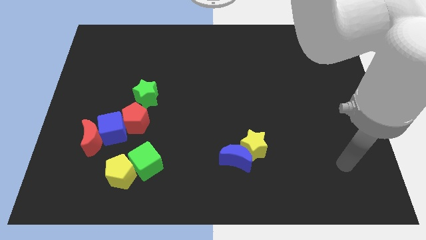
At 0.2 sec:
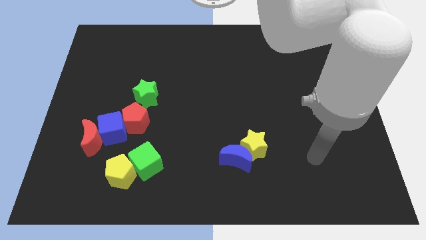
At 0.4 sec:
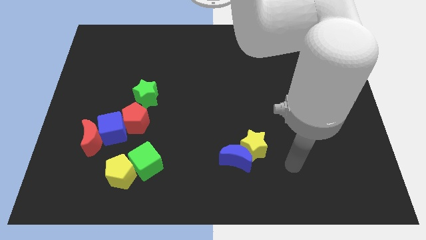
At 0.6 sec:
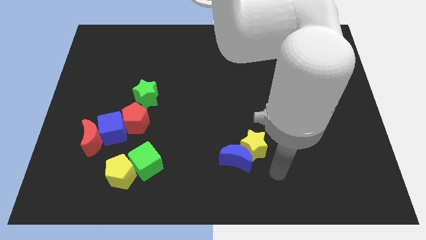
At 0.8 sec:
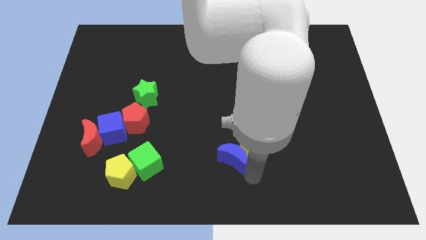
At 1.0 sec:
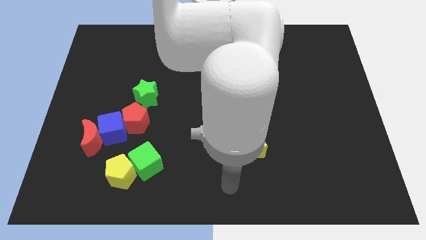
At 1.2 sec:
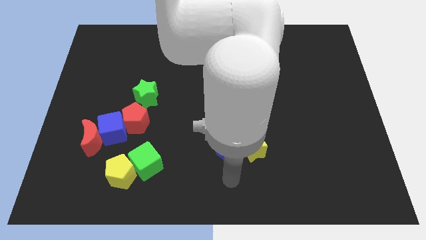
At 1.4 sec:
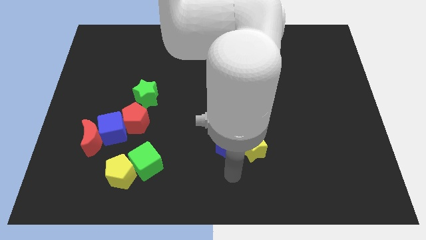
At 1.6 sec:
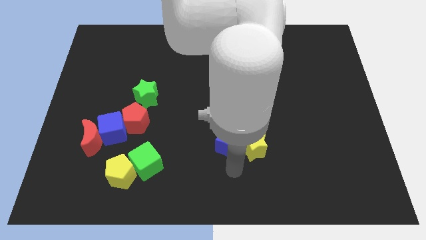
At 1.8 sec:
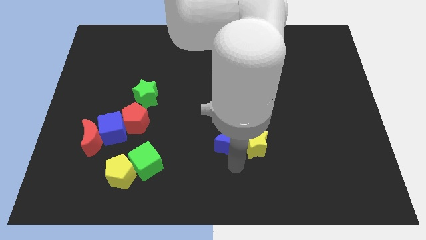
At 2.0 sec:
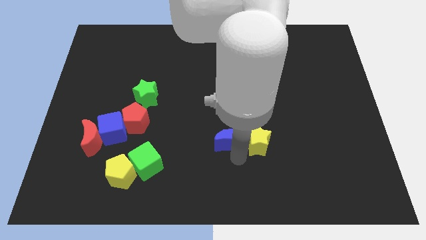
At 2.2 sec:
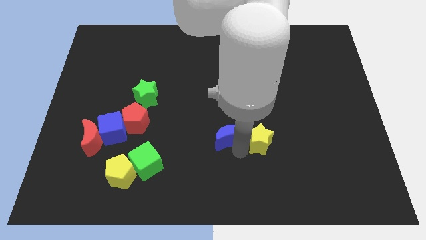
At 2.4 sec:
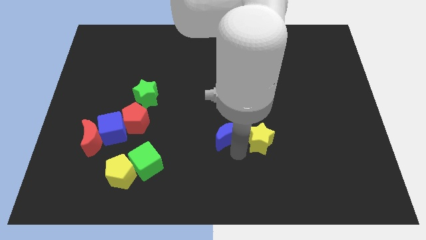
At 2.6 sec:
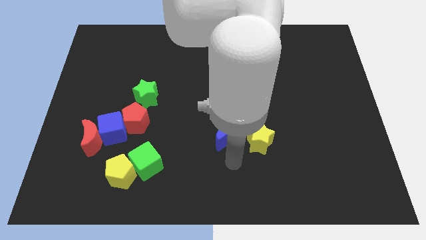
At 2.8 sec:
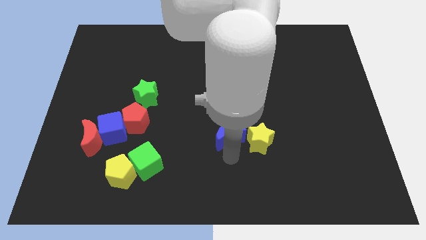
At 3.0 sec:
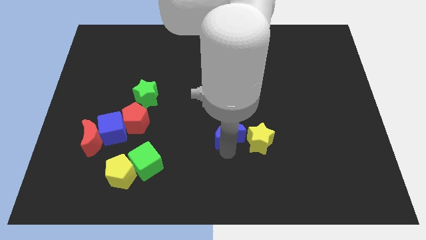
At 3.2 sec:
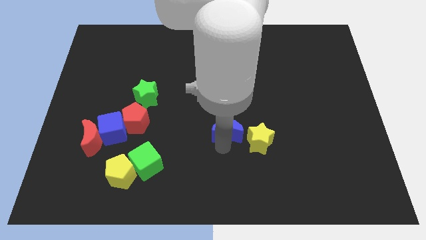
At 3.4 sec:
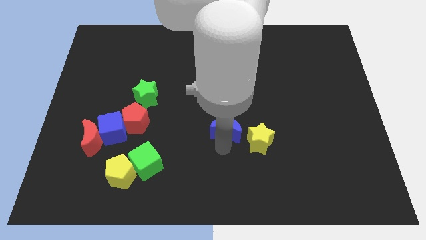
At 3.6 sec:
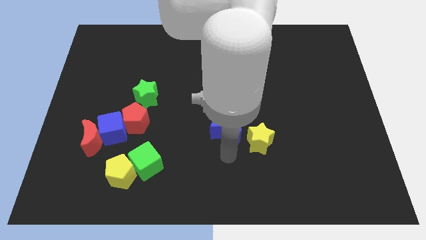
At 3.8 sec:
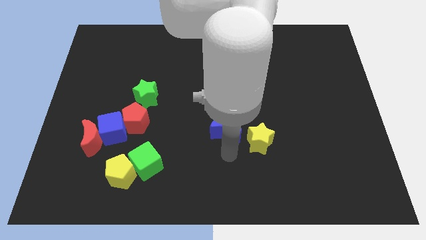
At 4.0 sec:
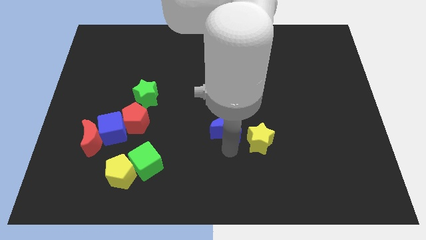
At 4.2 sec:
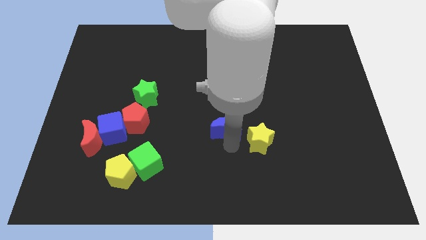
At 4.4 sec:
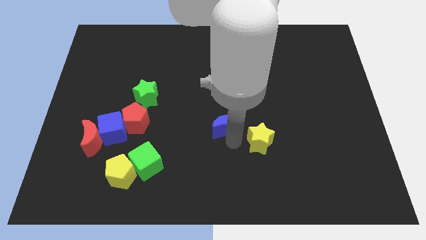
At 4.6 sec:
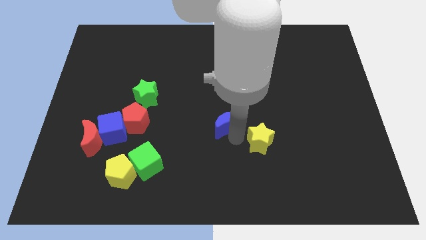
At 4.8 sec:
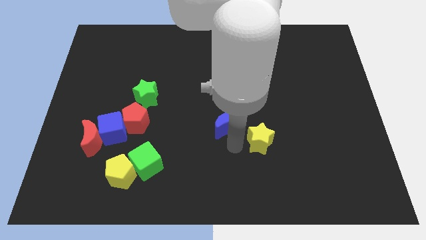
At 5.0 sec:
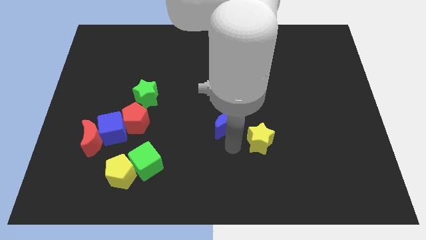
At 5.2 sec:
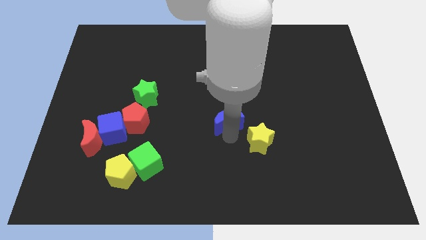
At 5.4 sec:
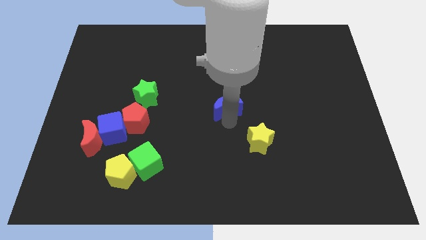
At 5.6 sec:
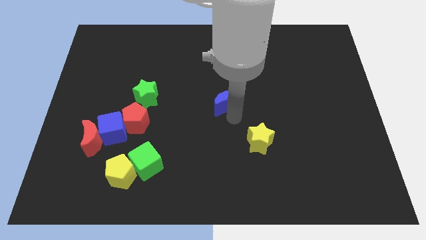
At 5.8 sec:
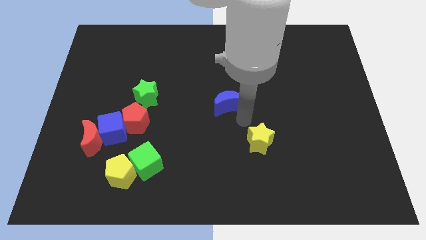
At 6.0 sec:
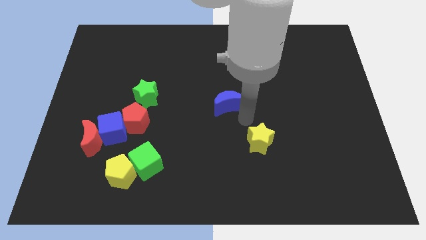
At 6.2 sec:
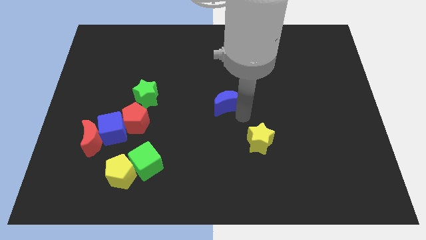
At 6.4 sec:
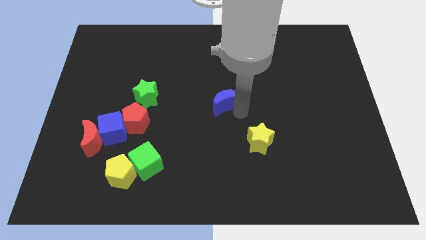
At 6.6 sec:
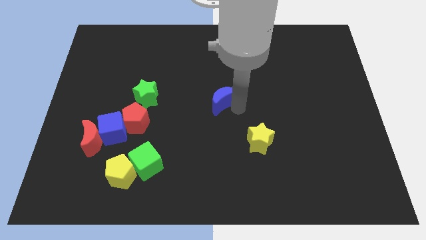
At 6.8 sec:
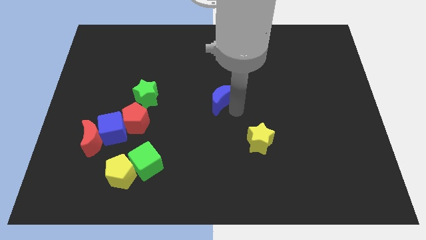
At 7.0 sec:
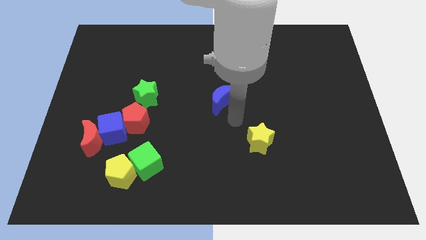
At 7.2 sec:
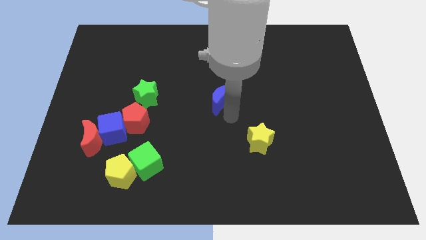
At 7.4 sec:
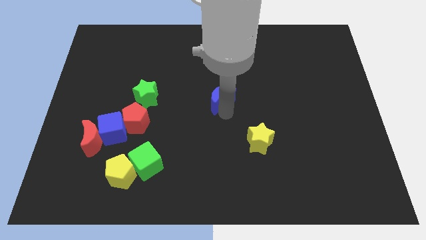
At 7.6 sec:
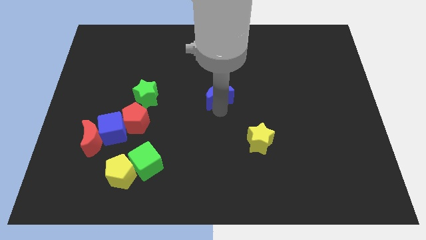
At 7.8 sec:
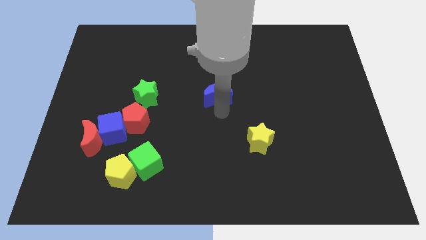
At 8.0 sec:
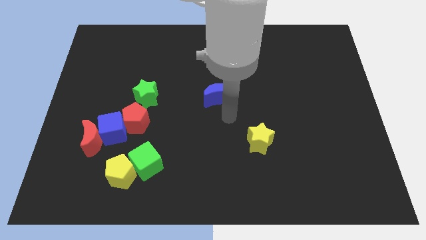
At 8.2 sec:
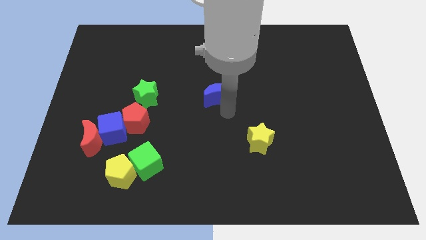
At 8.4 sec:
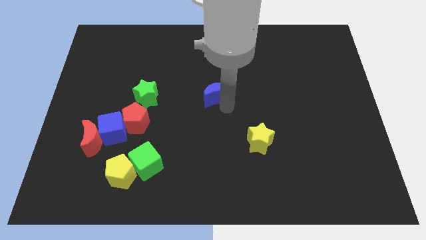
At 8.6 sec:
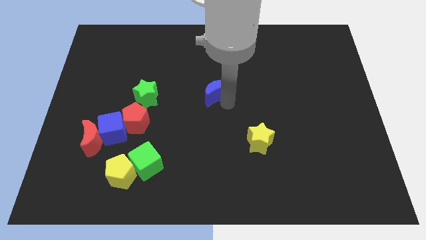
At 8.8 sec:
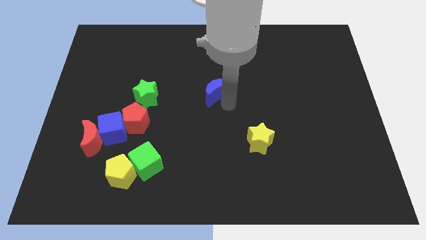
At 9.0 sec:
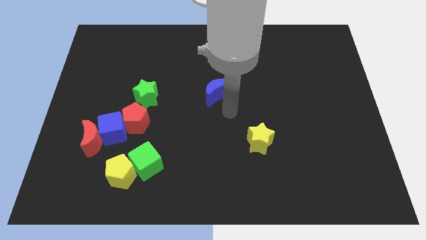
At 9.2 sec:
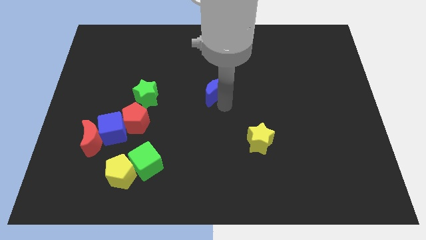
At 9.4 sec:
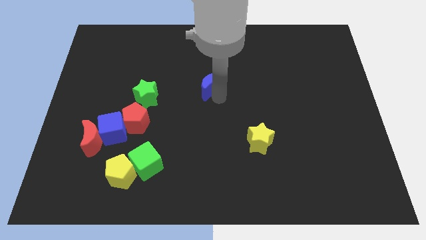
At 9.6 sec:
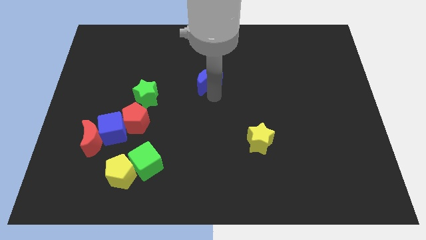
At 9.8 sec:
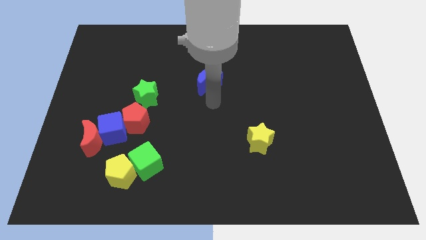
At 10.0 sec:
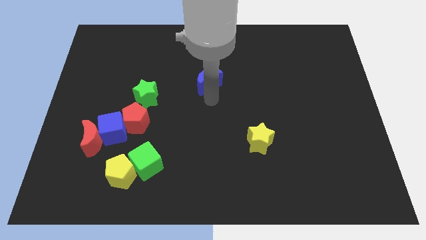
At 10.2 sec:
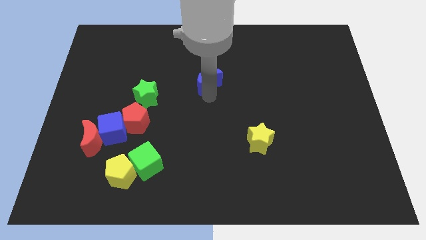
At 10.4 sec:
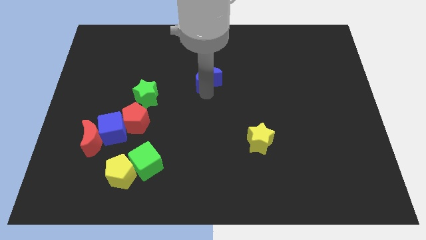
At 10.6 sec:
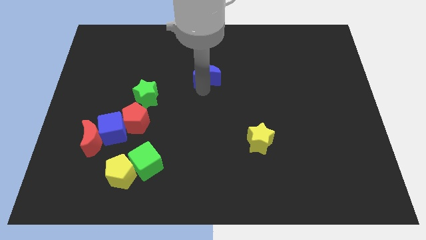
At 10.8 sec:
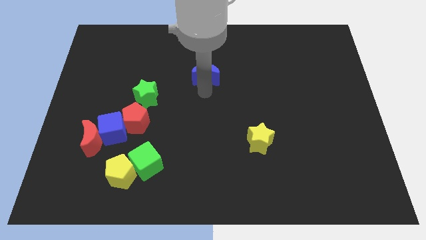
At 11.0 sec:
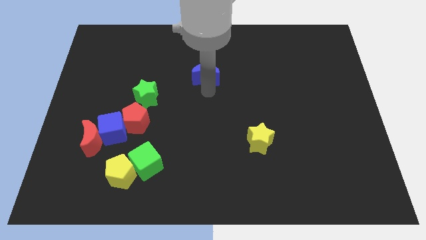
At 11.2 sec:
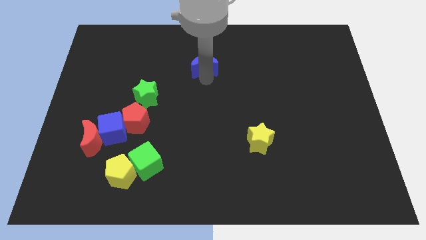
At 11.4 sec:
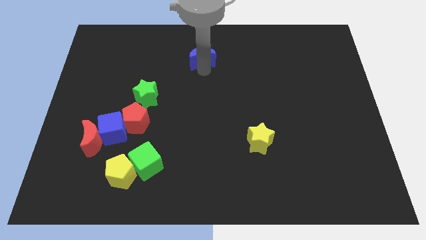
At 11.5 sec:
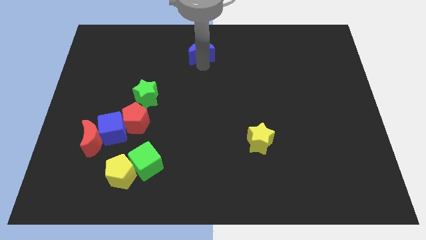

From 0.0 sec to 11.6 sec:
slide the blue moon to the top

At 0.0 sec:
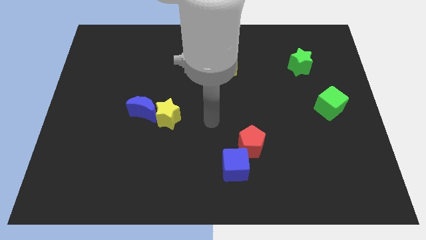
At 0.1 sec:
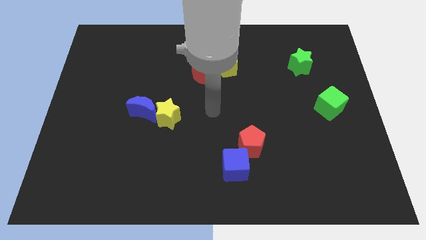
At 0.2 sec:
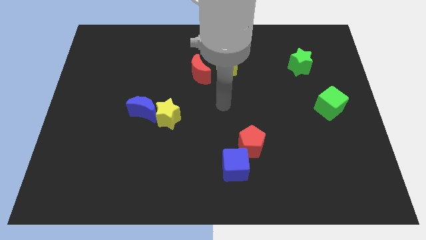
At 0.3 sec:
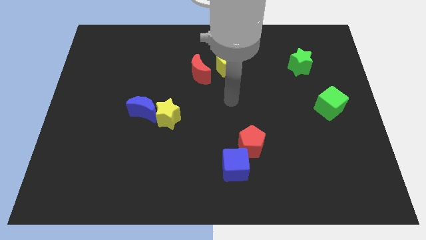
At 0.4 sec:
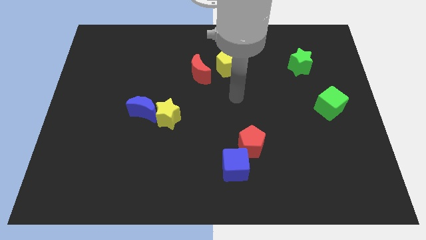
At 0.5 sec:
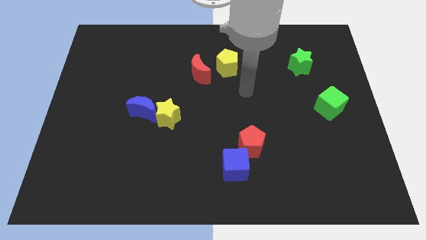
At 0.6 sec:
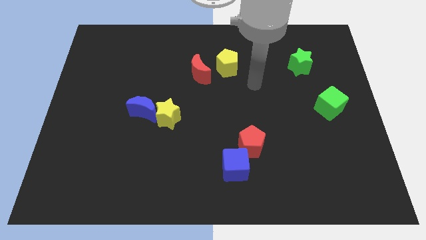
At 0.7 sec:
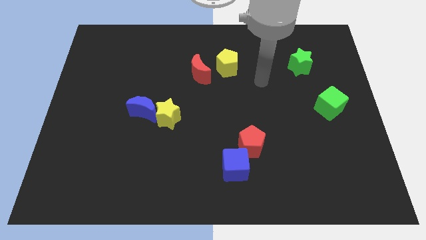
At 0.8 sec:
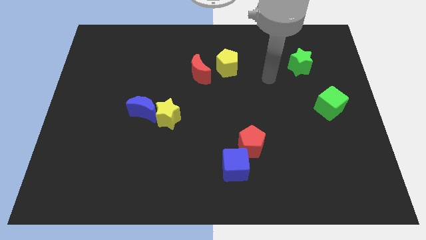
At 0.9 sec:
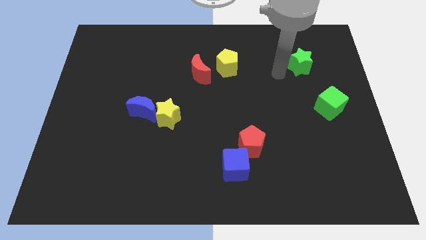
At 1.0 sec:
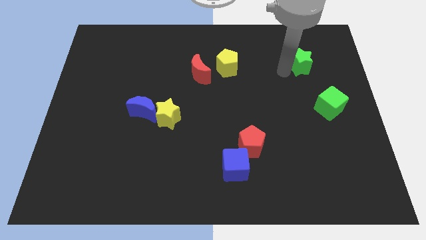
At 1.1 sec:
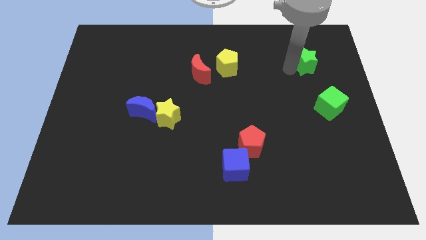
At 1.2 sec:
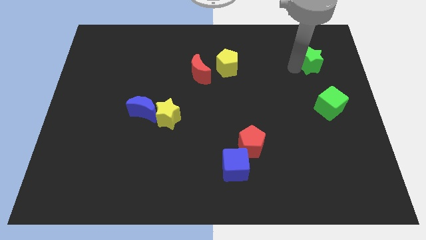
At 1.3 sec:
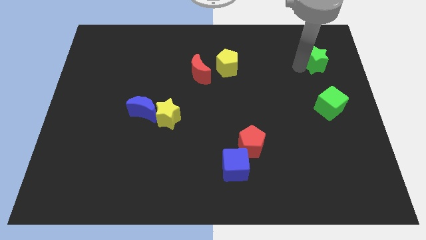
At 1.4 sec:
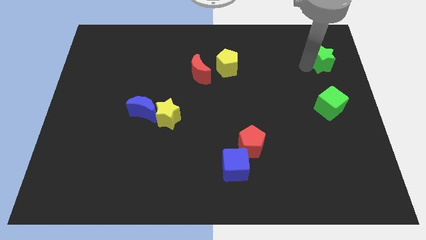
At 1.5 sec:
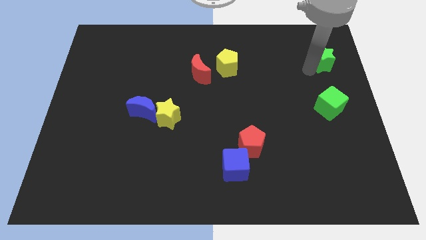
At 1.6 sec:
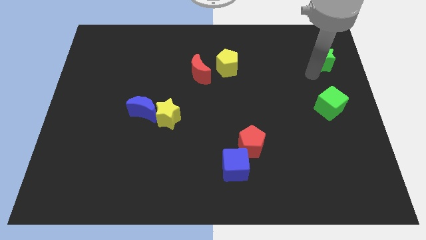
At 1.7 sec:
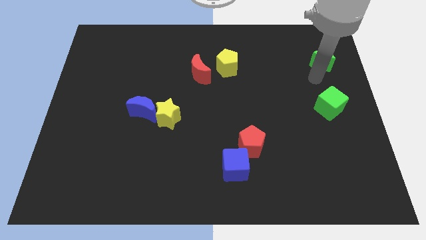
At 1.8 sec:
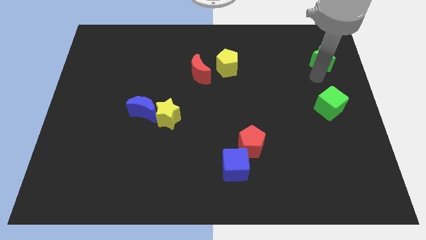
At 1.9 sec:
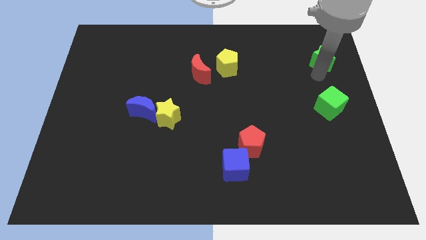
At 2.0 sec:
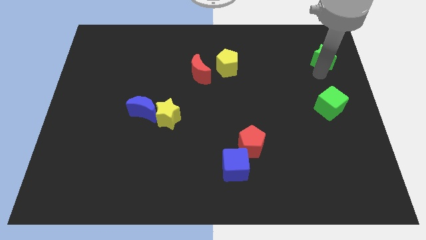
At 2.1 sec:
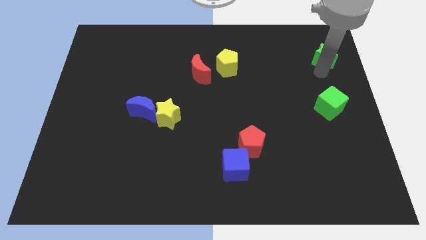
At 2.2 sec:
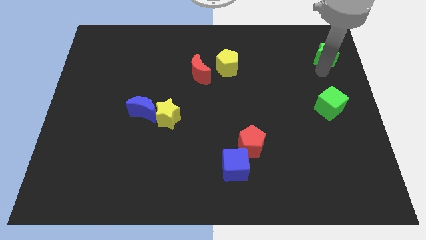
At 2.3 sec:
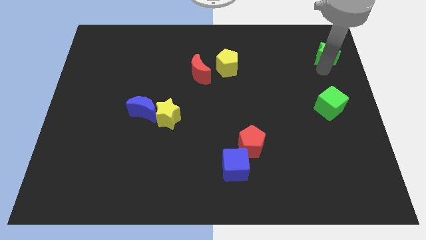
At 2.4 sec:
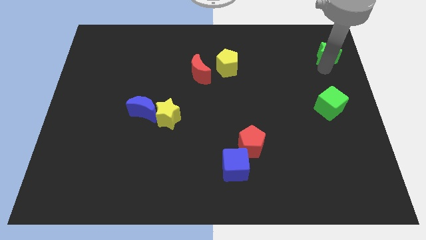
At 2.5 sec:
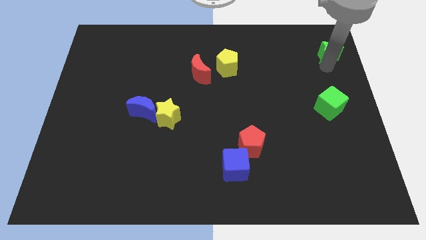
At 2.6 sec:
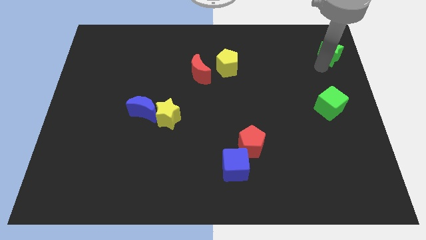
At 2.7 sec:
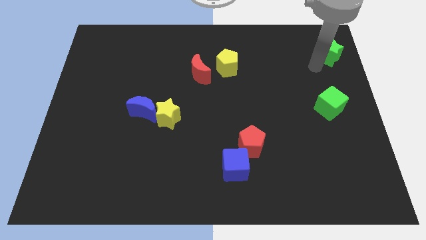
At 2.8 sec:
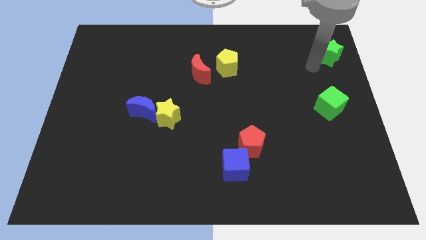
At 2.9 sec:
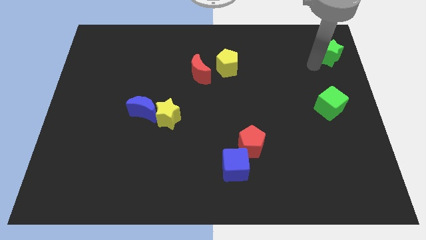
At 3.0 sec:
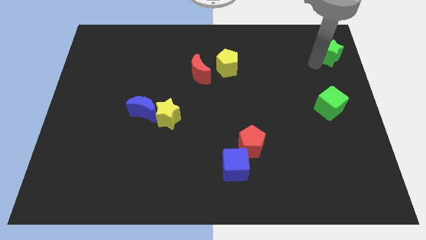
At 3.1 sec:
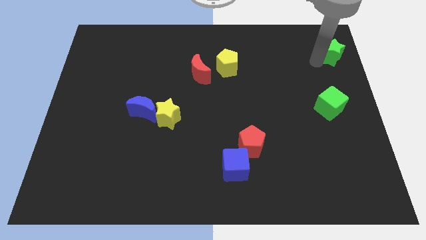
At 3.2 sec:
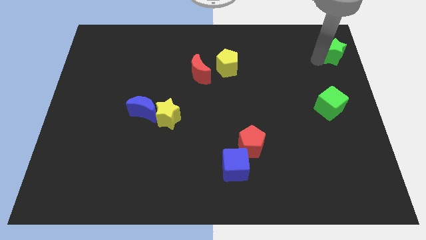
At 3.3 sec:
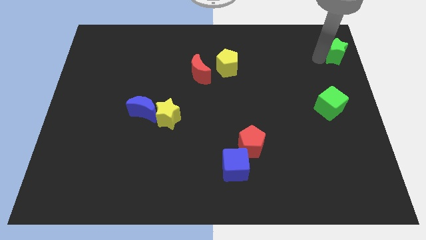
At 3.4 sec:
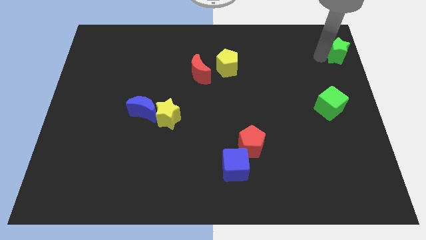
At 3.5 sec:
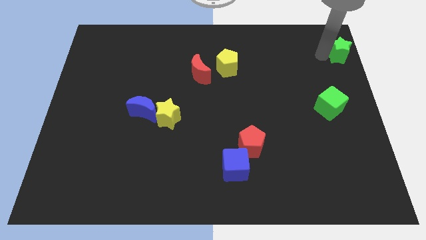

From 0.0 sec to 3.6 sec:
slide the green star to the upper right corner
